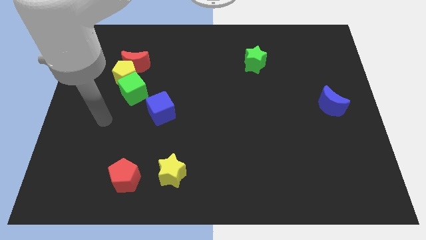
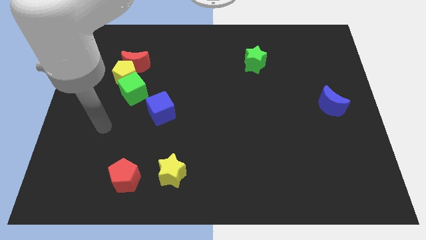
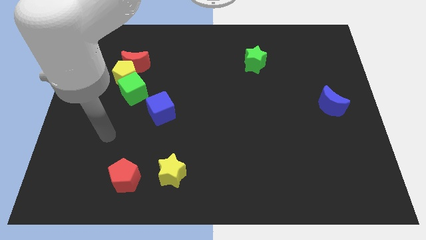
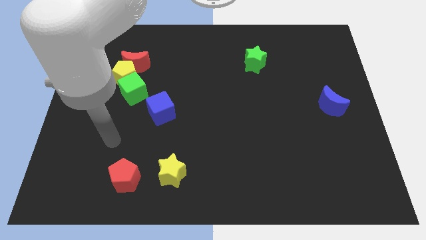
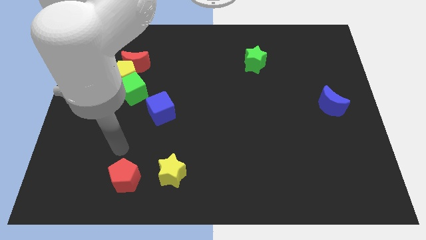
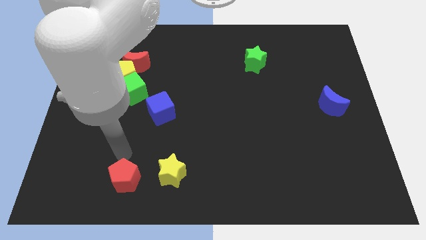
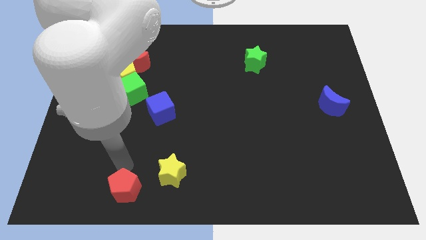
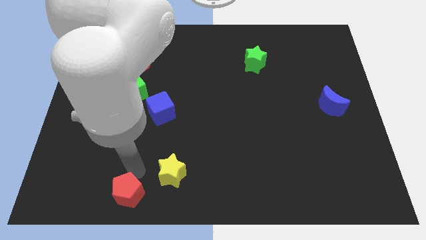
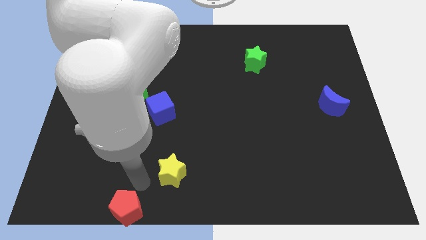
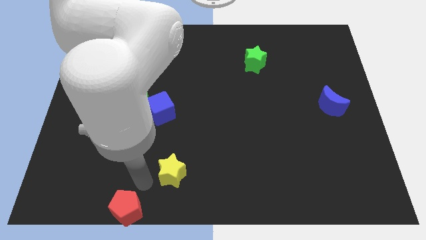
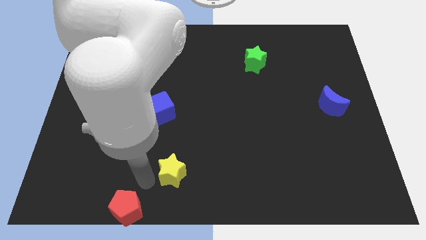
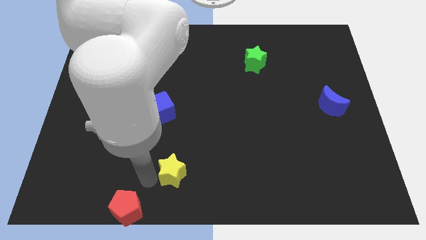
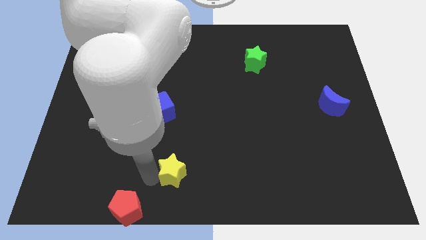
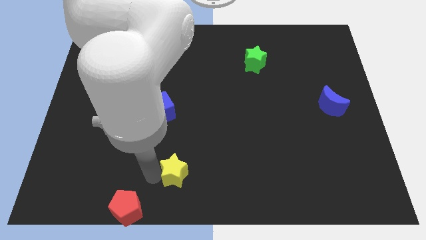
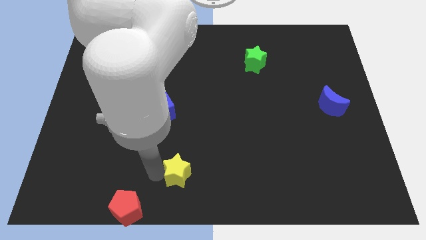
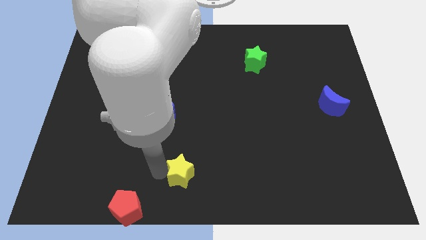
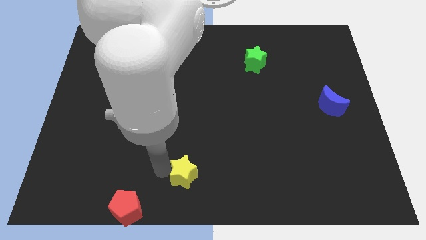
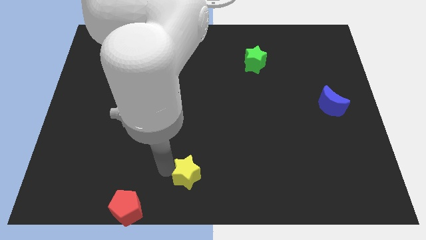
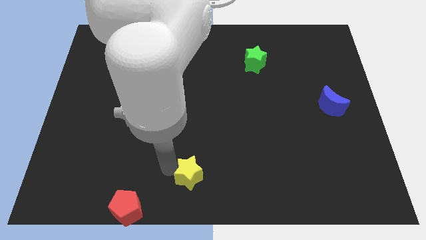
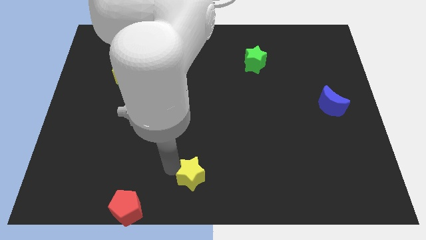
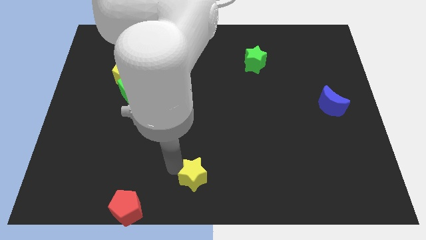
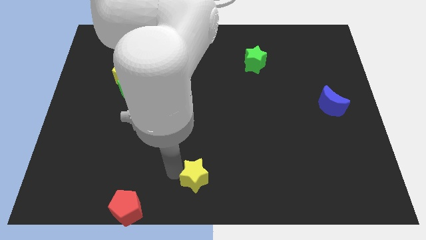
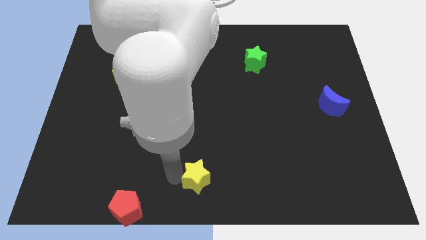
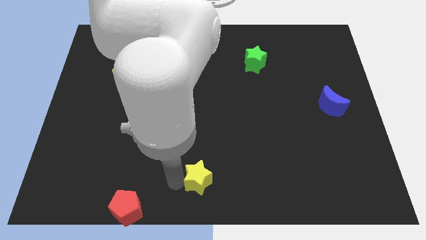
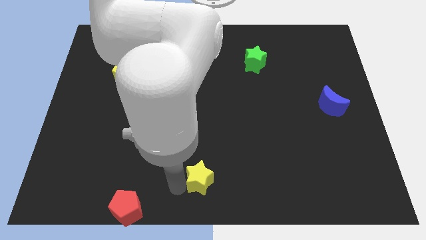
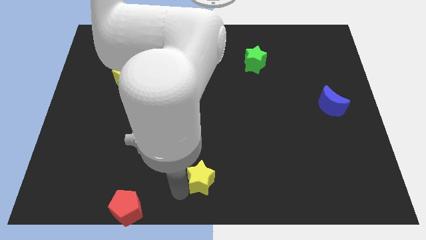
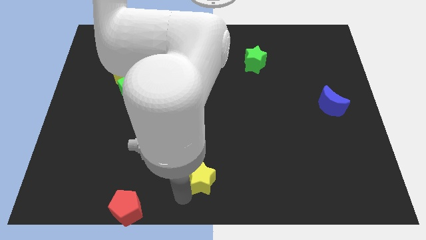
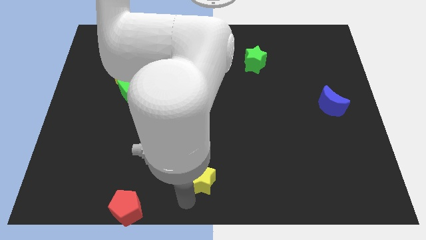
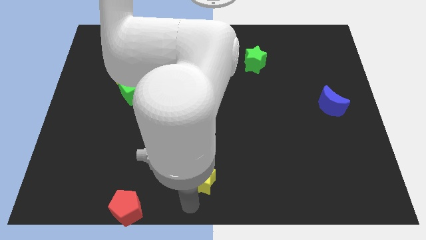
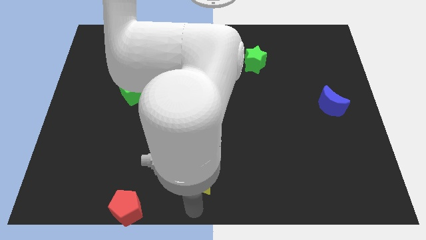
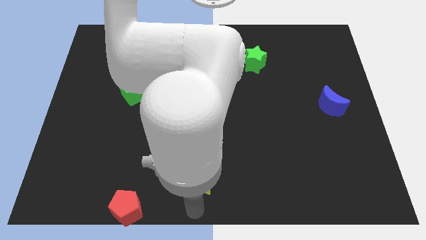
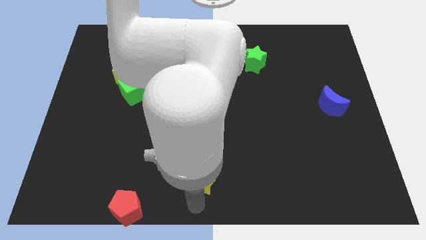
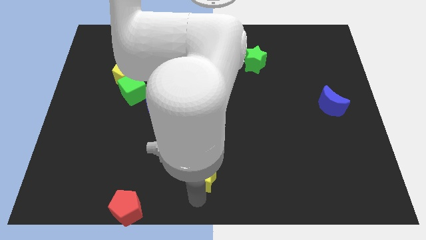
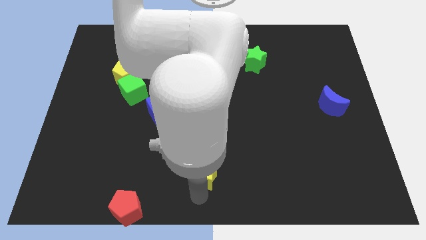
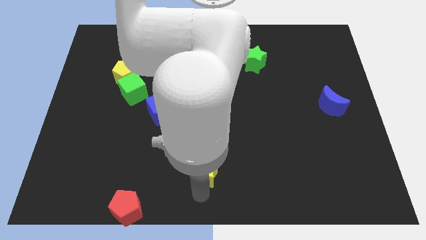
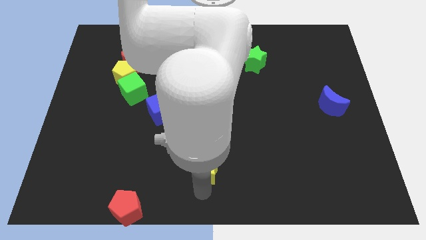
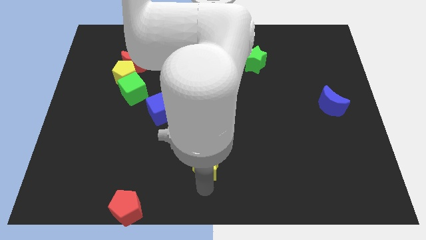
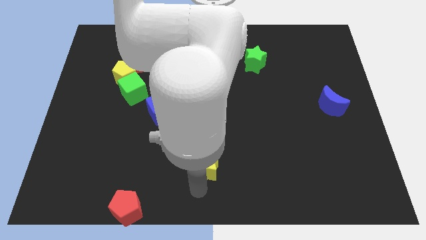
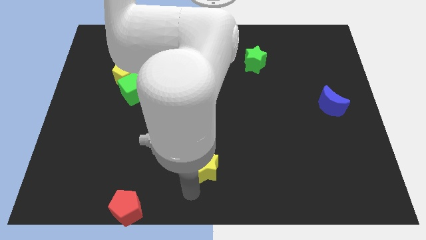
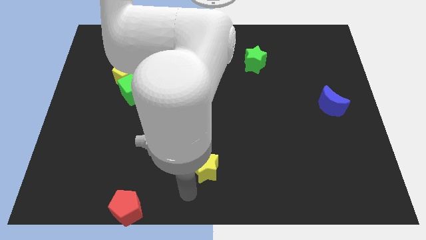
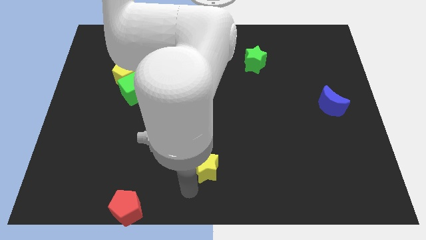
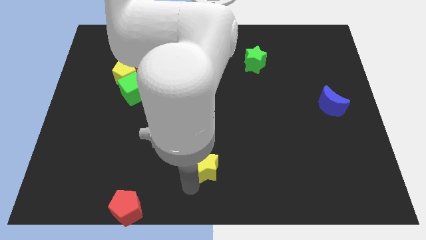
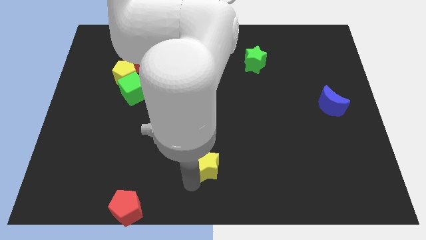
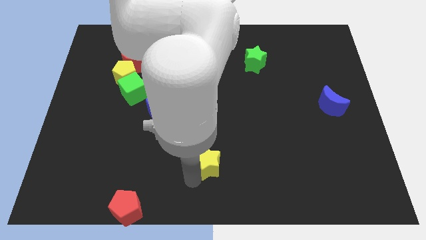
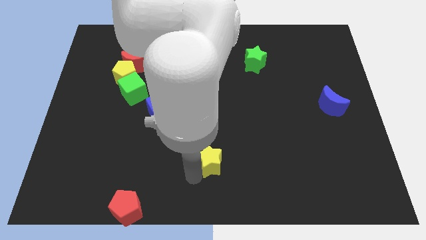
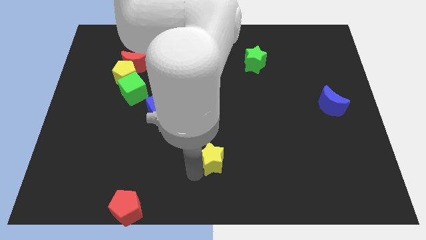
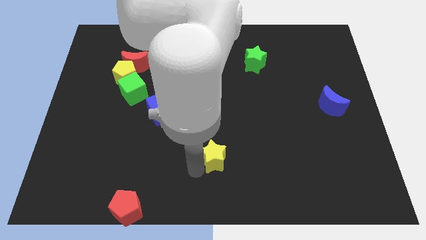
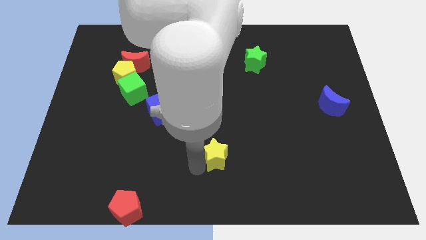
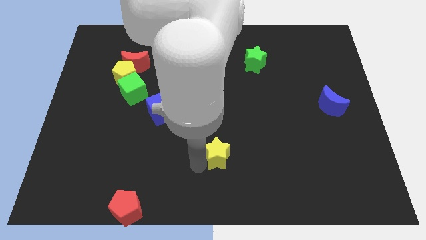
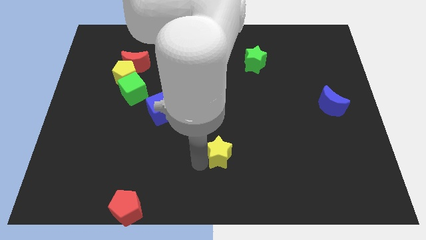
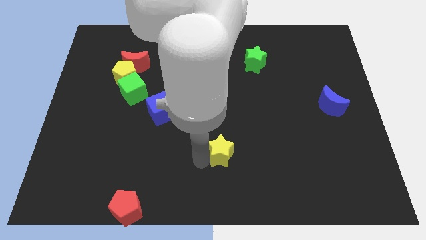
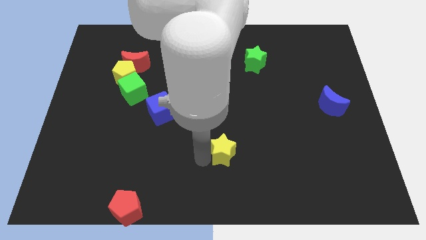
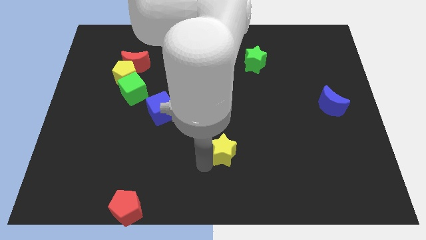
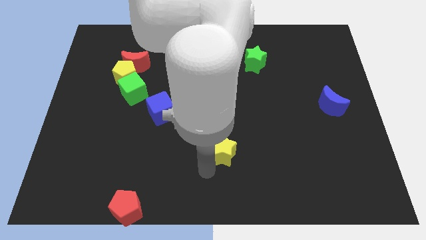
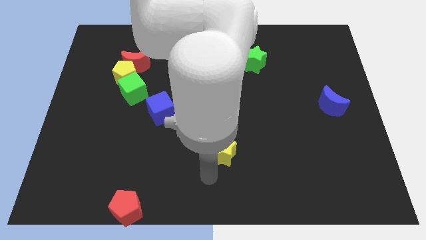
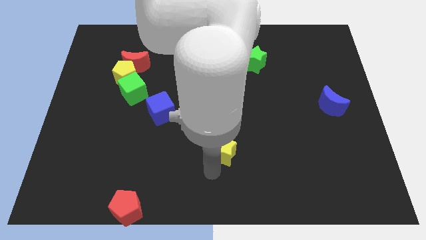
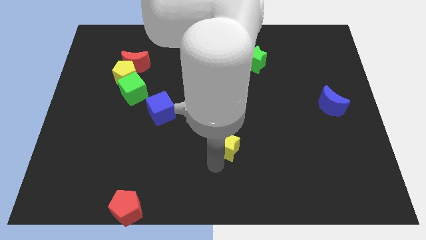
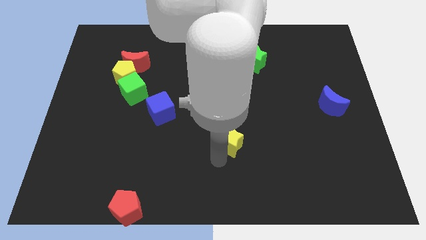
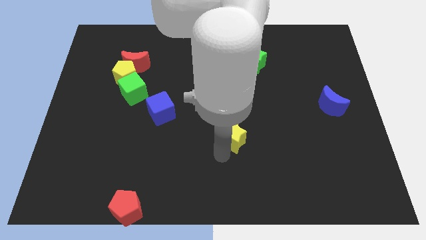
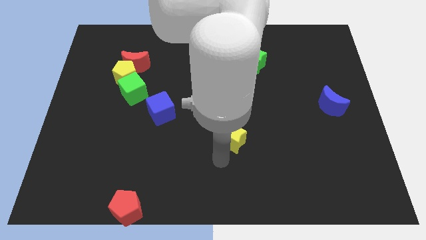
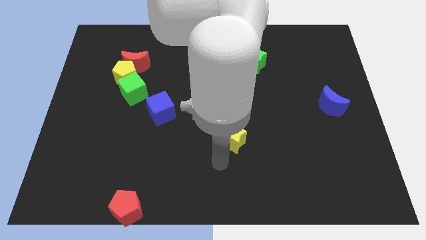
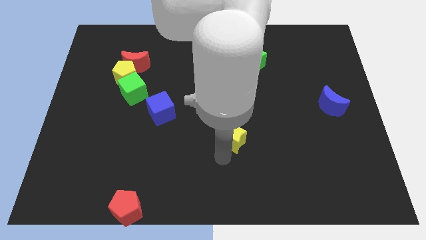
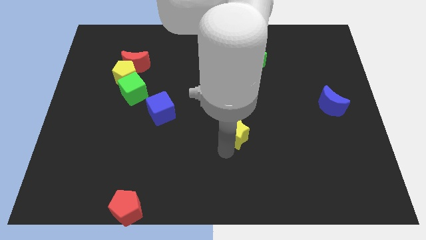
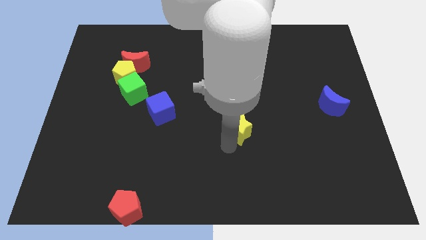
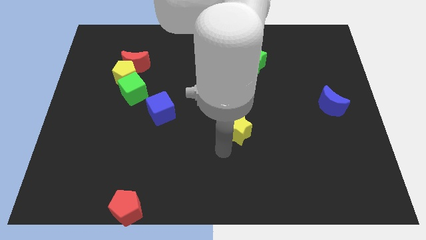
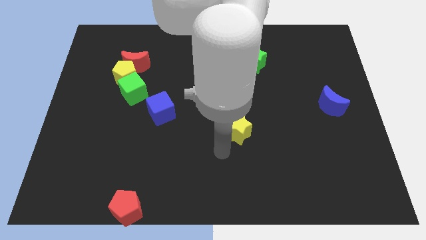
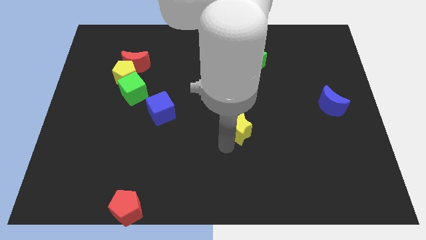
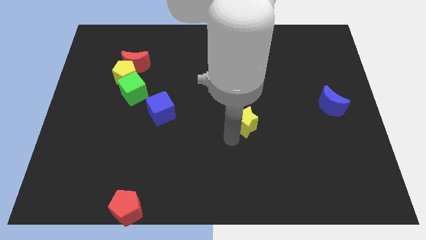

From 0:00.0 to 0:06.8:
move the yellow star upwards and right diagonally

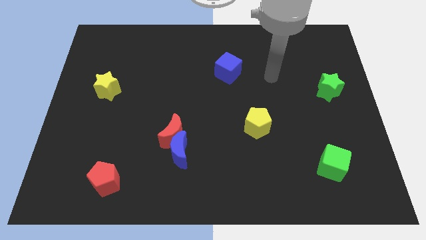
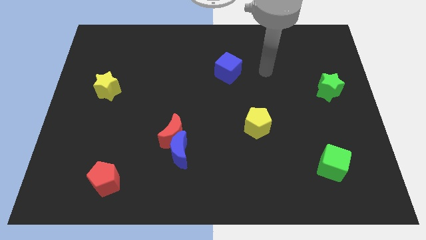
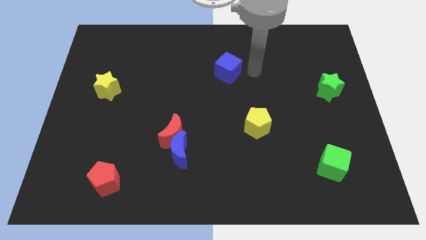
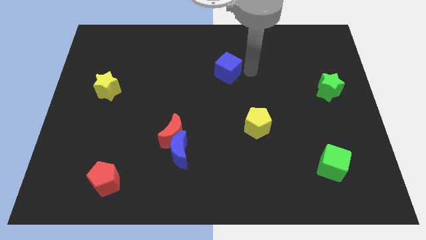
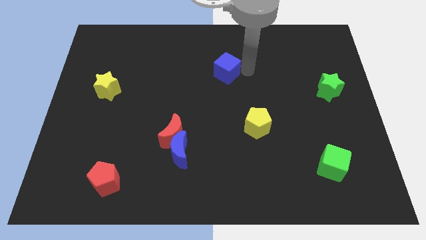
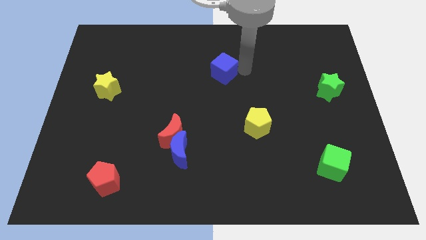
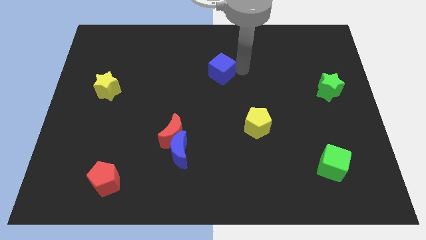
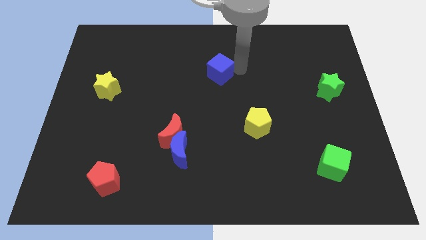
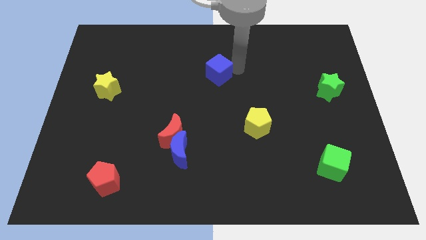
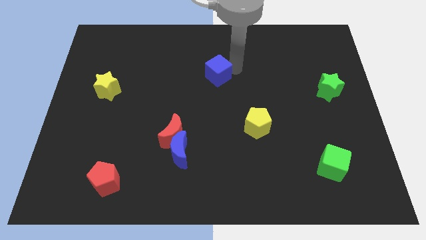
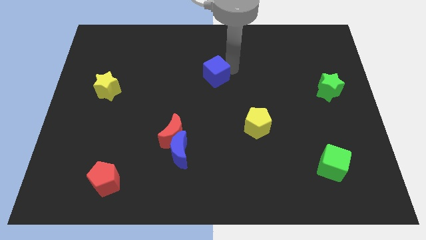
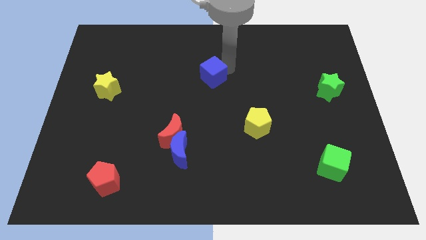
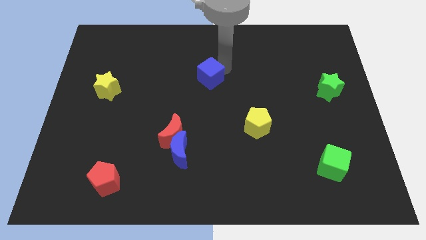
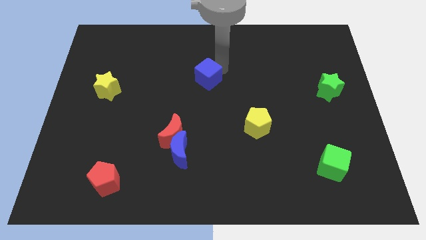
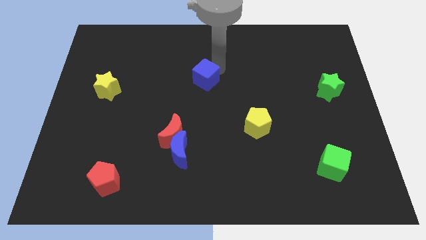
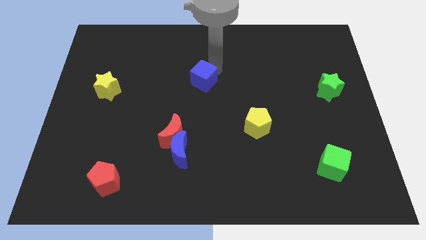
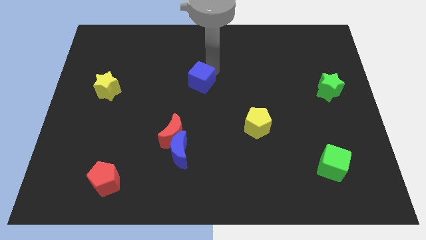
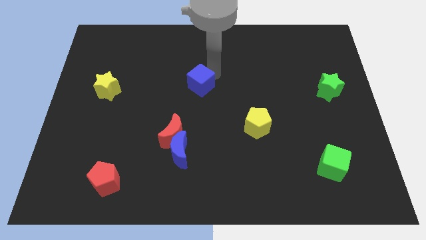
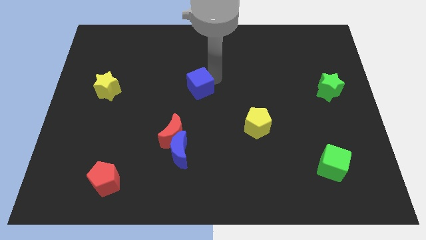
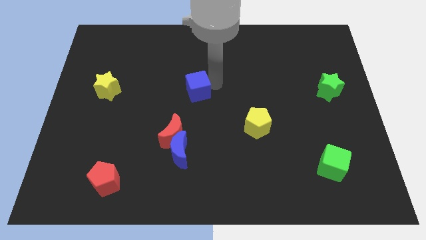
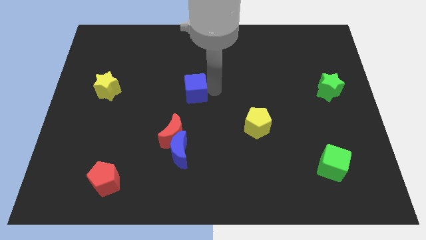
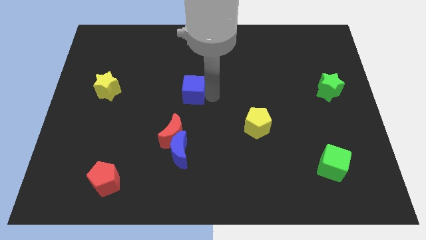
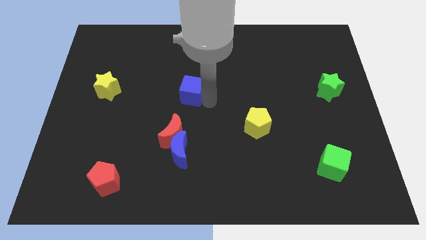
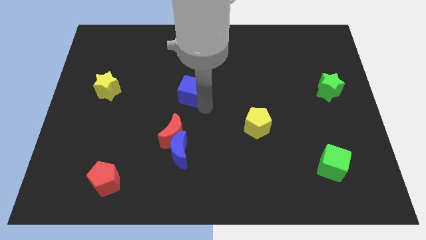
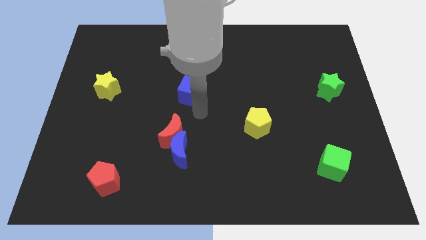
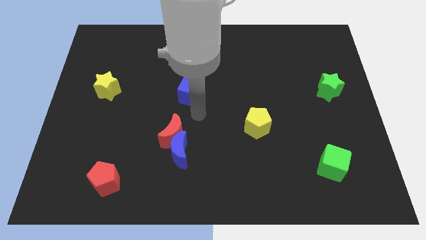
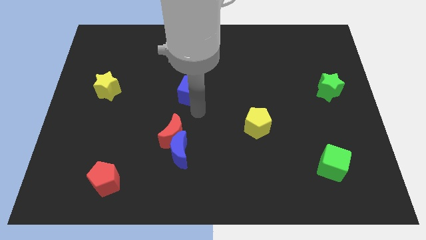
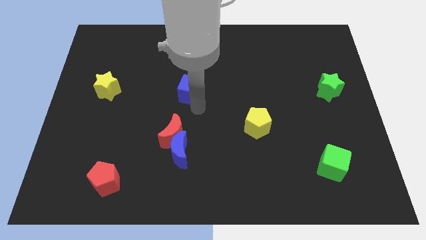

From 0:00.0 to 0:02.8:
slightly move the blue cube left
